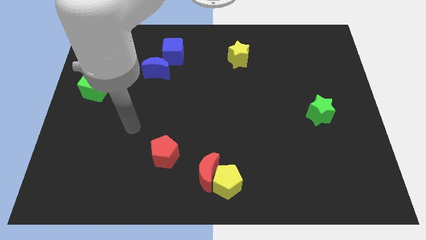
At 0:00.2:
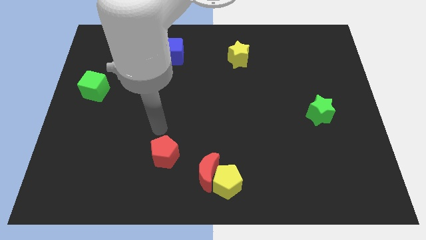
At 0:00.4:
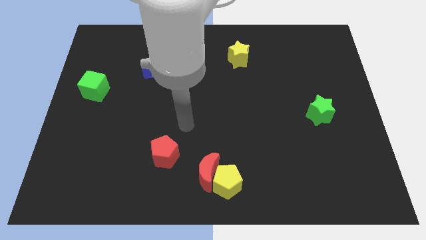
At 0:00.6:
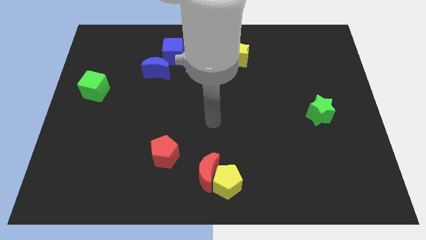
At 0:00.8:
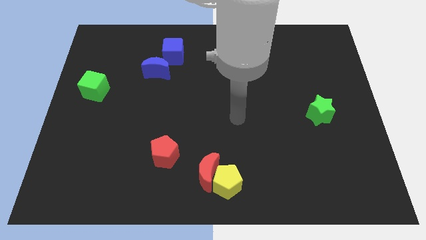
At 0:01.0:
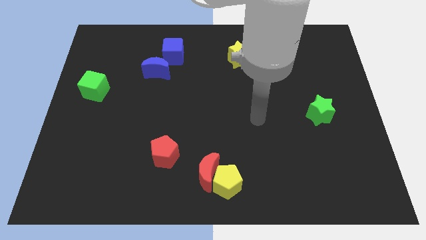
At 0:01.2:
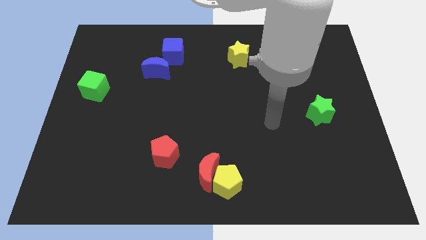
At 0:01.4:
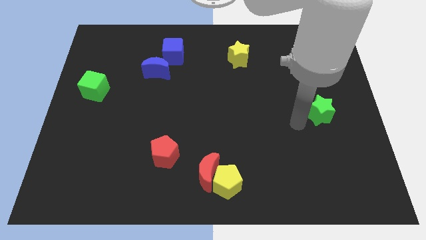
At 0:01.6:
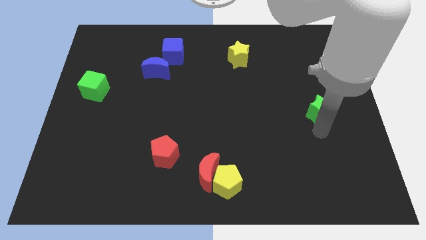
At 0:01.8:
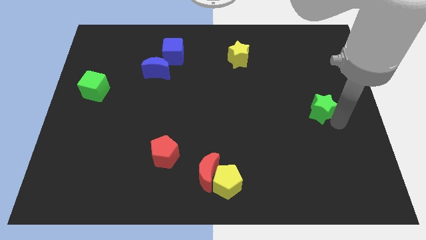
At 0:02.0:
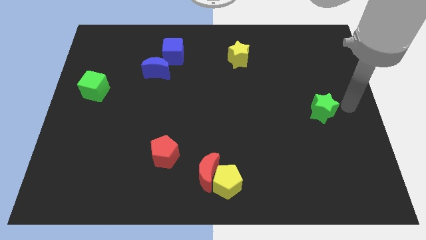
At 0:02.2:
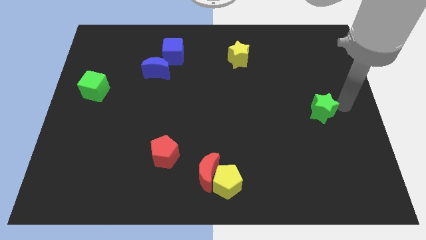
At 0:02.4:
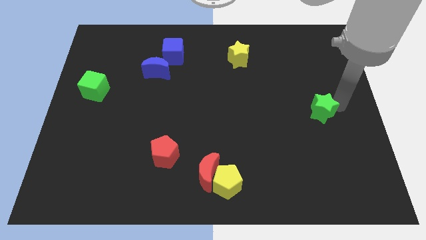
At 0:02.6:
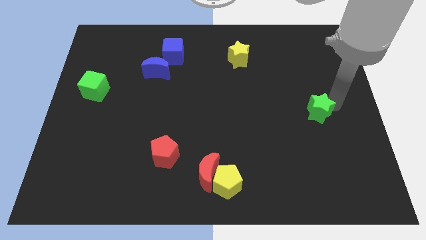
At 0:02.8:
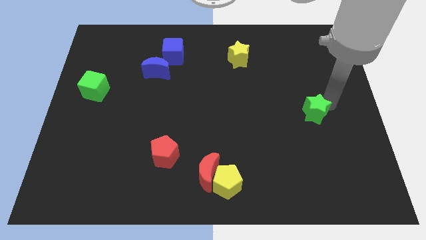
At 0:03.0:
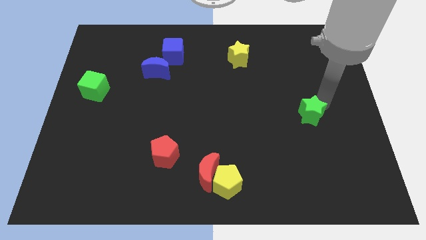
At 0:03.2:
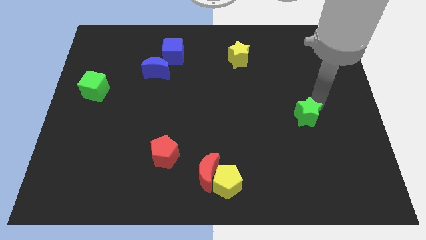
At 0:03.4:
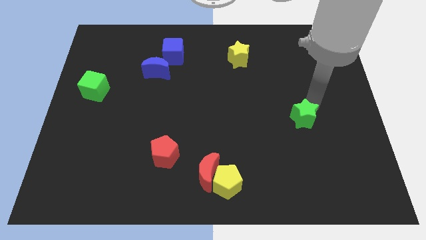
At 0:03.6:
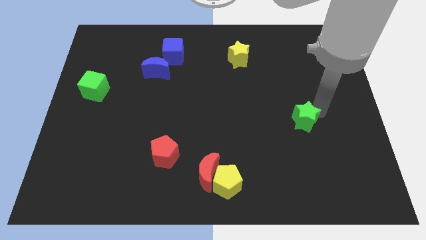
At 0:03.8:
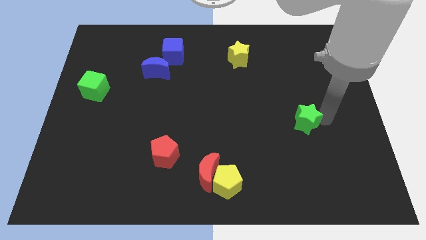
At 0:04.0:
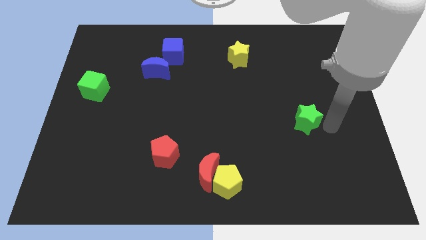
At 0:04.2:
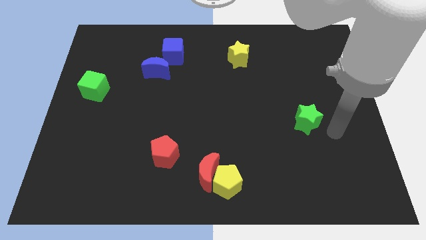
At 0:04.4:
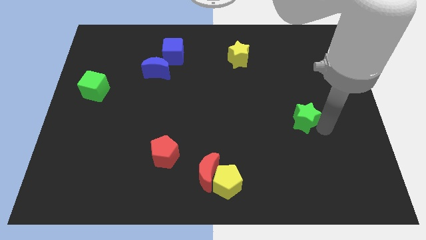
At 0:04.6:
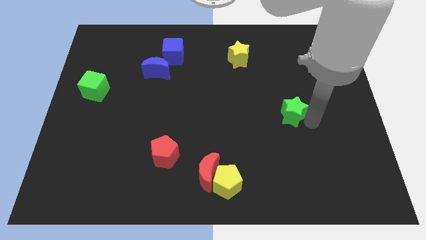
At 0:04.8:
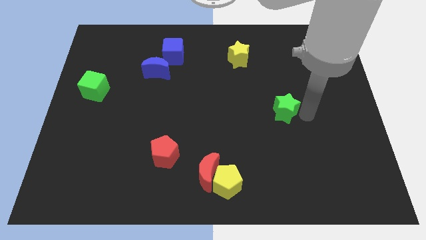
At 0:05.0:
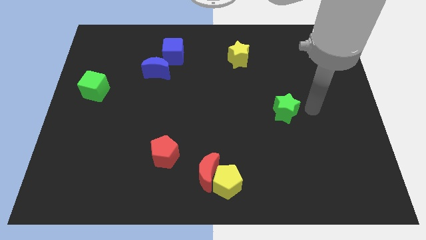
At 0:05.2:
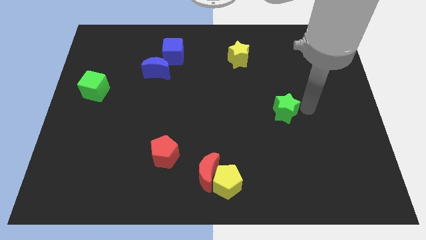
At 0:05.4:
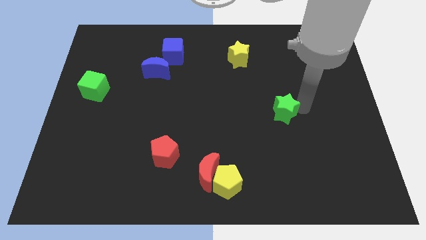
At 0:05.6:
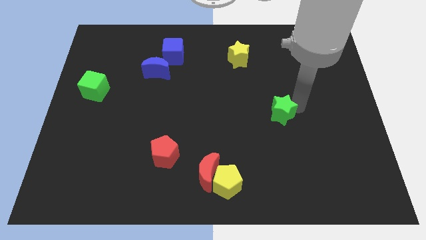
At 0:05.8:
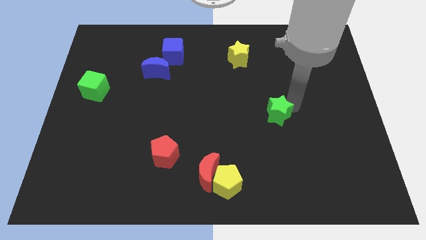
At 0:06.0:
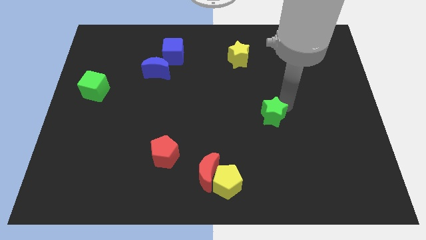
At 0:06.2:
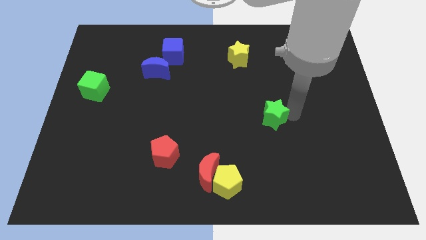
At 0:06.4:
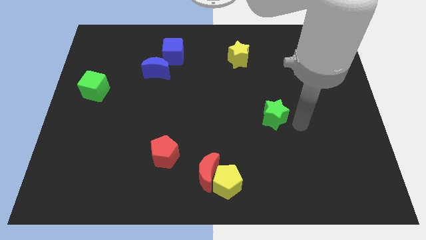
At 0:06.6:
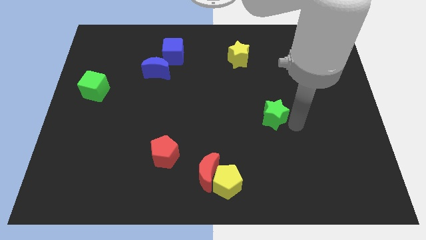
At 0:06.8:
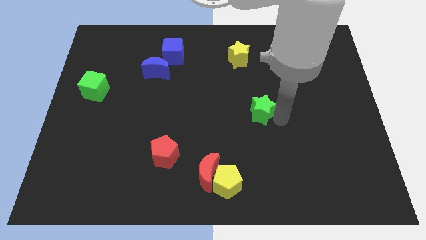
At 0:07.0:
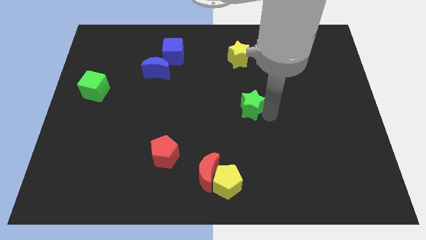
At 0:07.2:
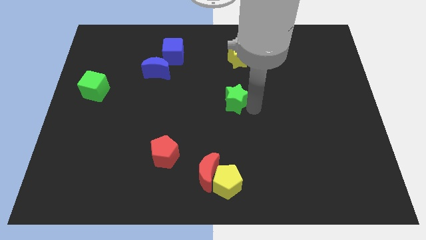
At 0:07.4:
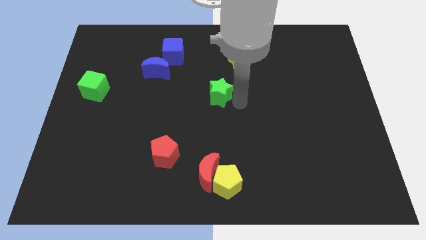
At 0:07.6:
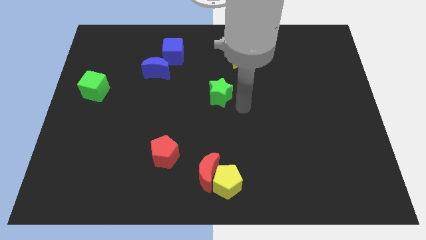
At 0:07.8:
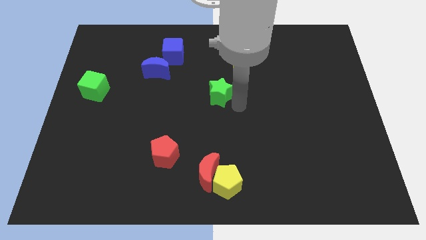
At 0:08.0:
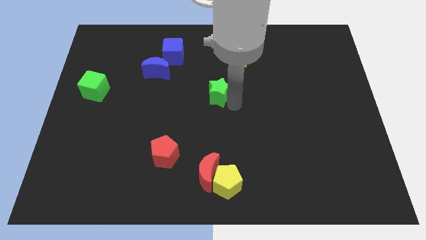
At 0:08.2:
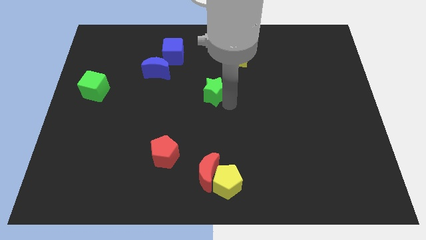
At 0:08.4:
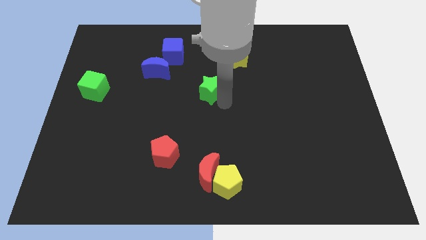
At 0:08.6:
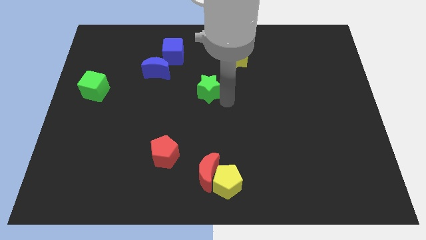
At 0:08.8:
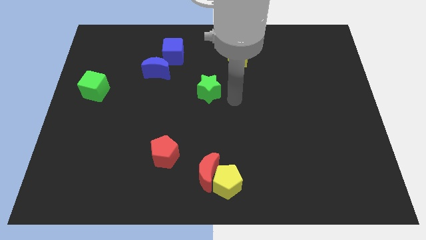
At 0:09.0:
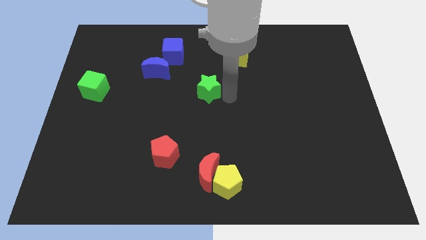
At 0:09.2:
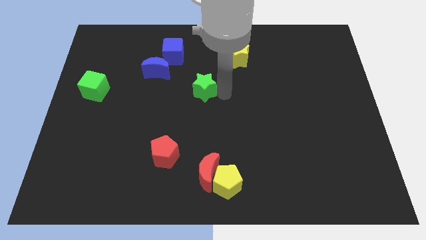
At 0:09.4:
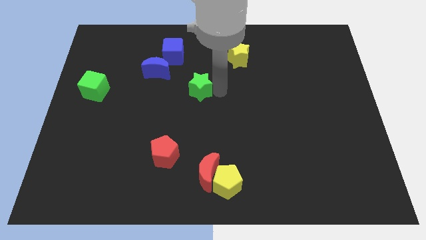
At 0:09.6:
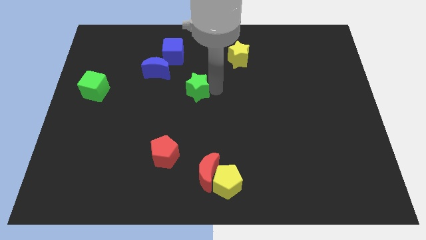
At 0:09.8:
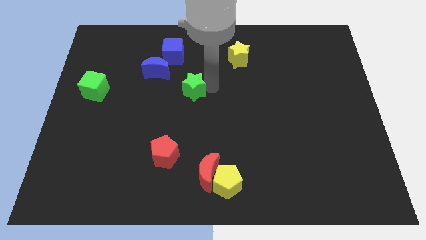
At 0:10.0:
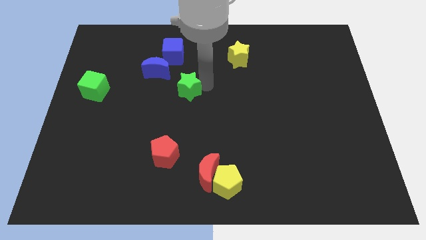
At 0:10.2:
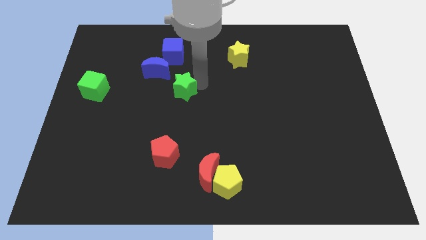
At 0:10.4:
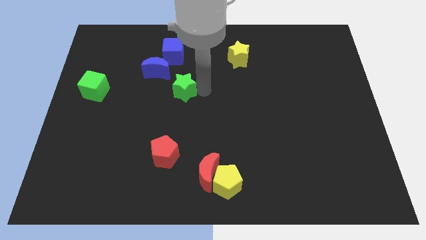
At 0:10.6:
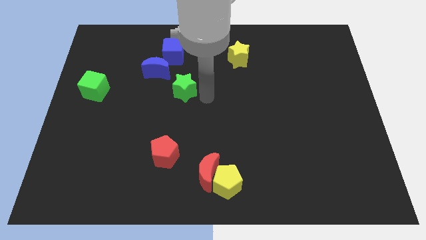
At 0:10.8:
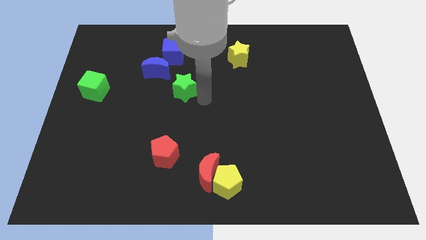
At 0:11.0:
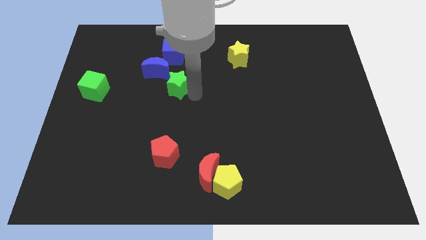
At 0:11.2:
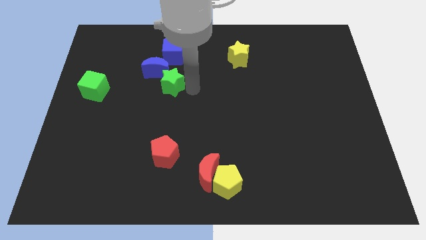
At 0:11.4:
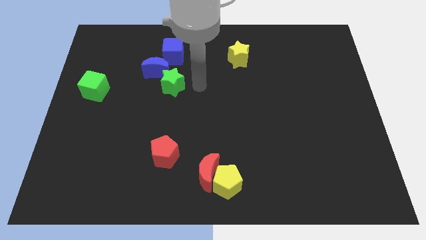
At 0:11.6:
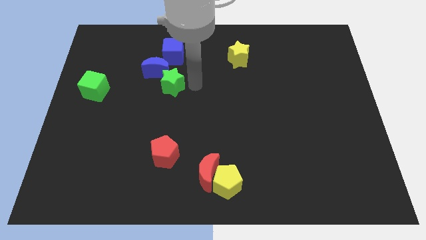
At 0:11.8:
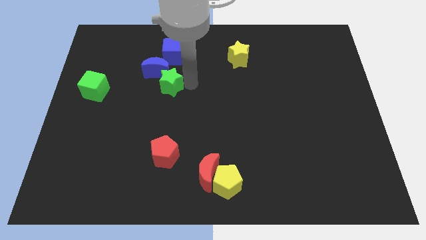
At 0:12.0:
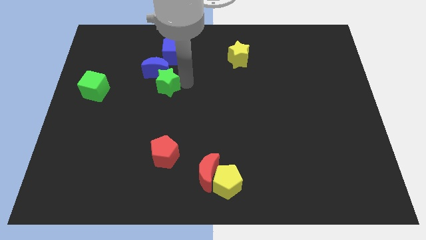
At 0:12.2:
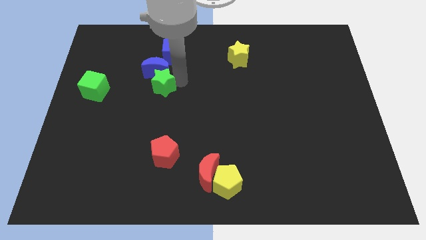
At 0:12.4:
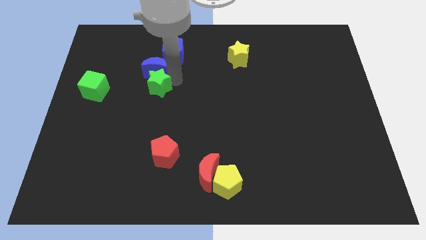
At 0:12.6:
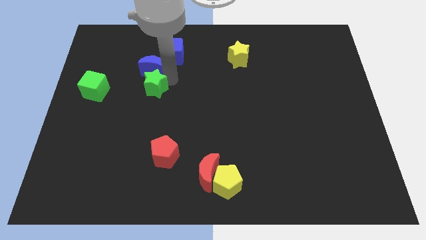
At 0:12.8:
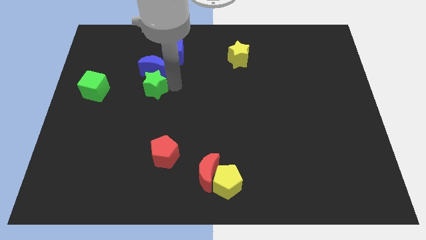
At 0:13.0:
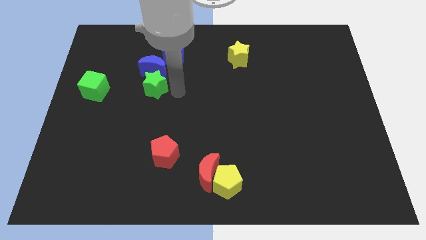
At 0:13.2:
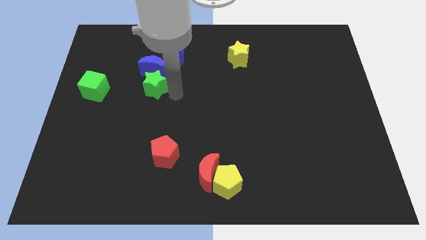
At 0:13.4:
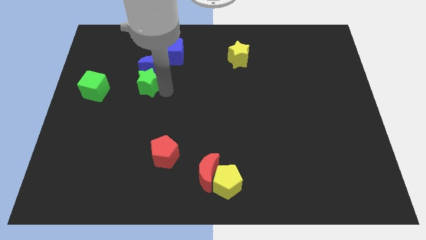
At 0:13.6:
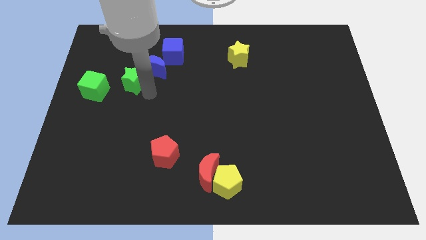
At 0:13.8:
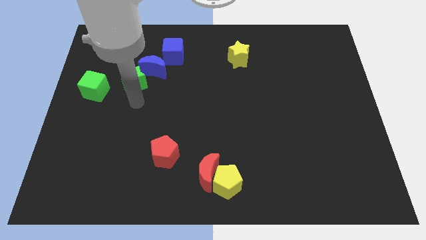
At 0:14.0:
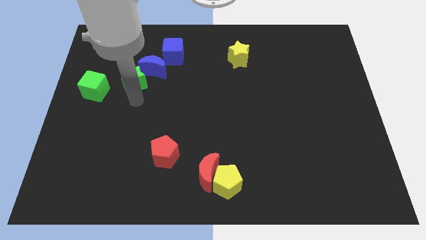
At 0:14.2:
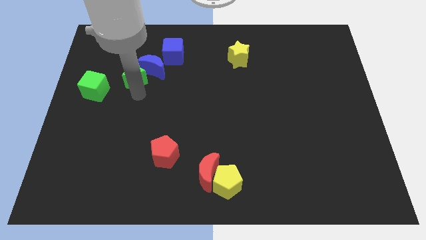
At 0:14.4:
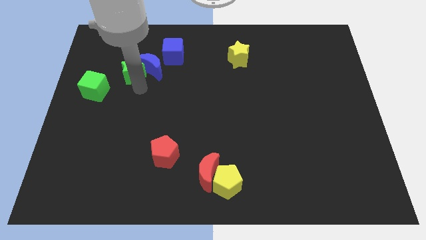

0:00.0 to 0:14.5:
put the green star to the top left side of the blue moon
